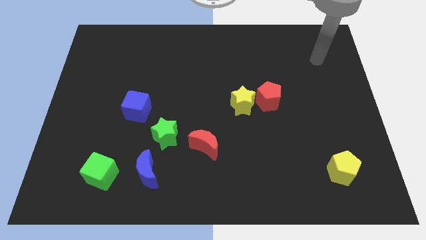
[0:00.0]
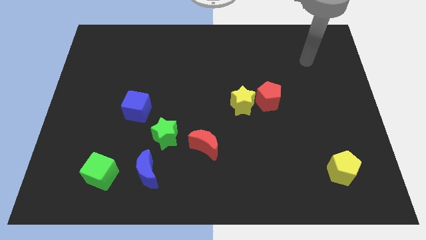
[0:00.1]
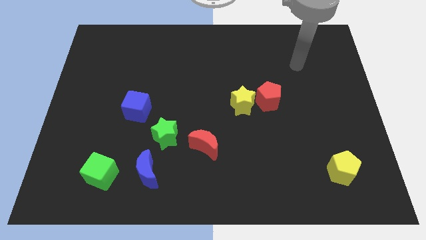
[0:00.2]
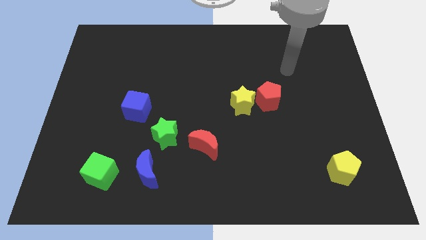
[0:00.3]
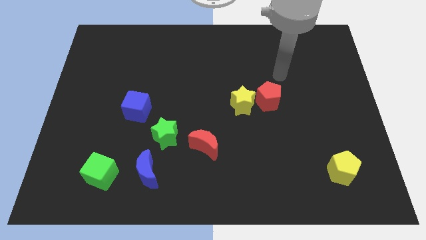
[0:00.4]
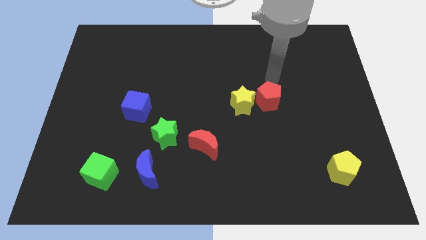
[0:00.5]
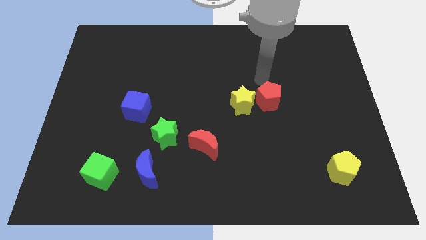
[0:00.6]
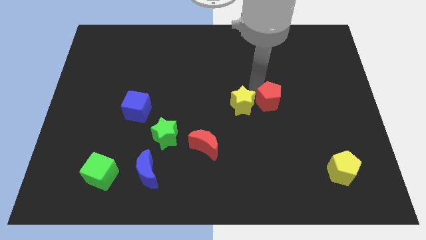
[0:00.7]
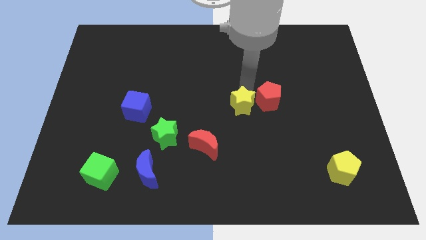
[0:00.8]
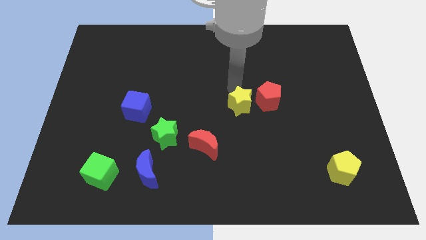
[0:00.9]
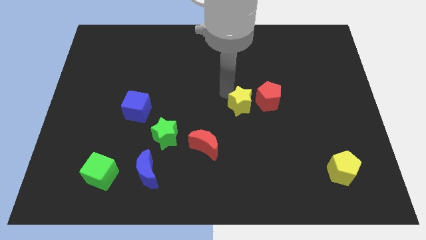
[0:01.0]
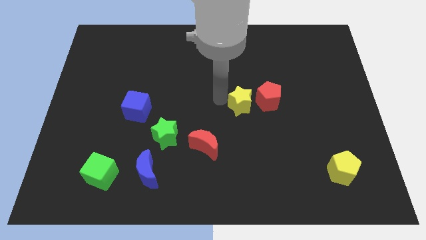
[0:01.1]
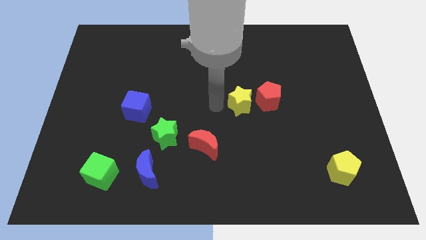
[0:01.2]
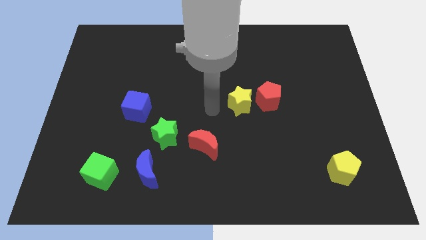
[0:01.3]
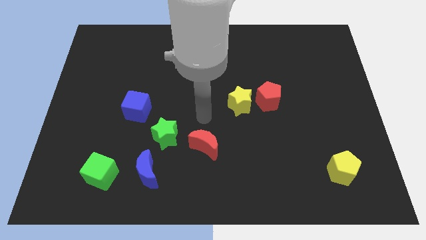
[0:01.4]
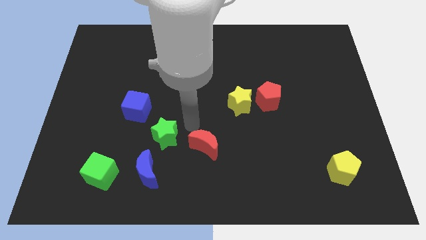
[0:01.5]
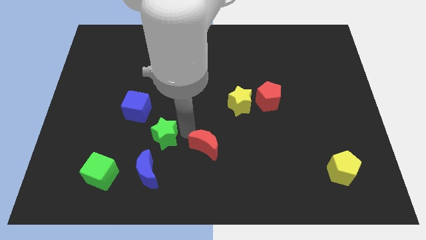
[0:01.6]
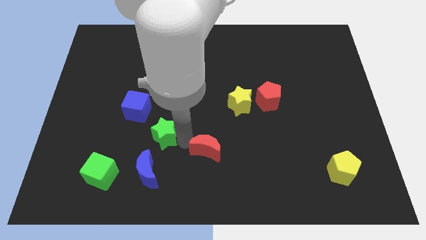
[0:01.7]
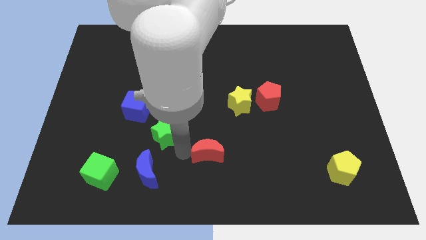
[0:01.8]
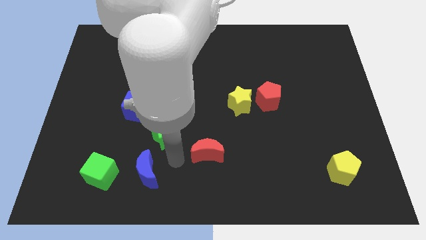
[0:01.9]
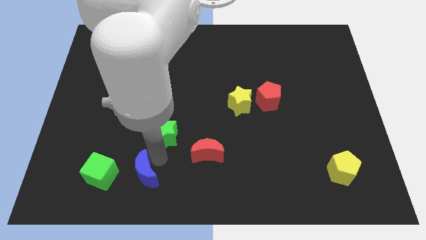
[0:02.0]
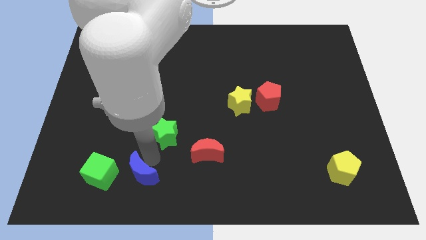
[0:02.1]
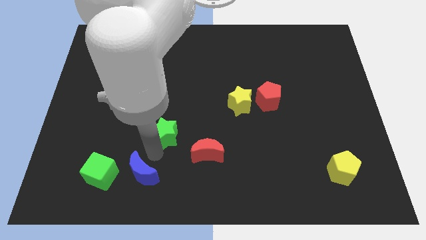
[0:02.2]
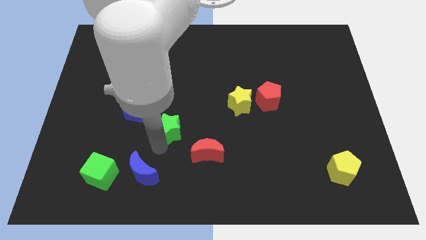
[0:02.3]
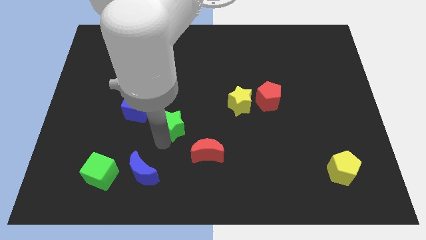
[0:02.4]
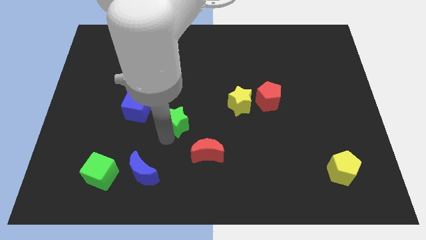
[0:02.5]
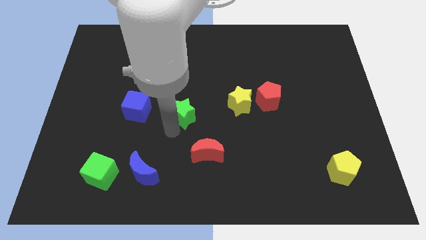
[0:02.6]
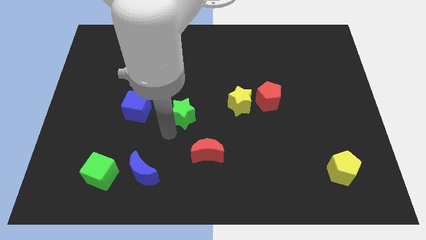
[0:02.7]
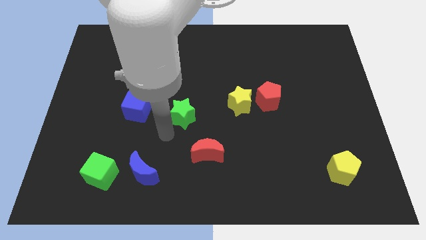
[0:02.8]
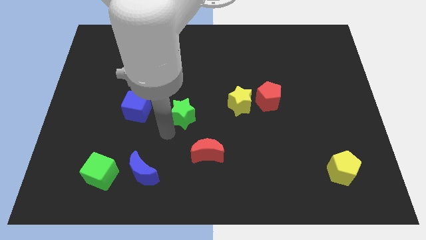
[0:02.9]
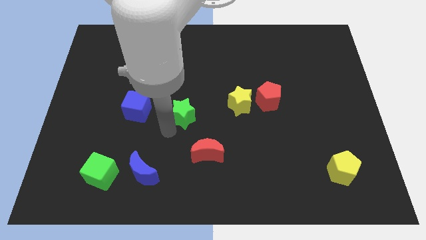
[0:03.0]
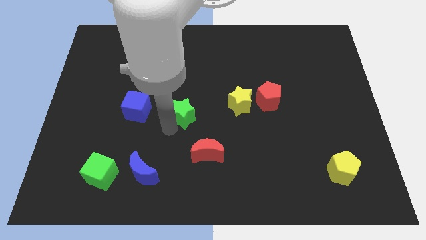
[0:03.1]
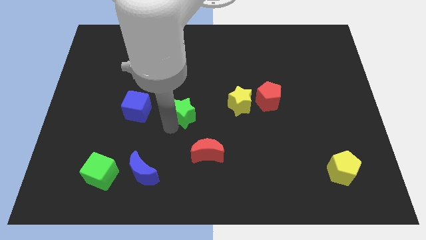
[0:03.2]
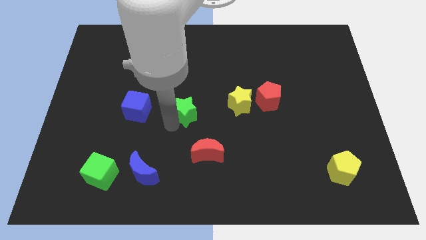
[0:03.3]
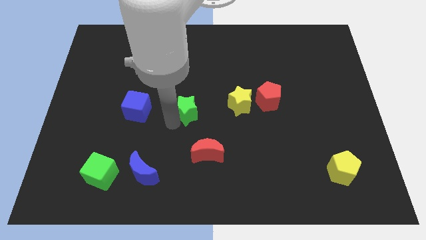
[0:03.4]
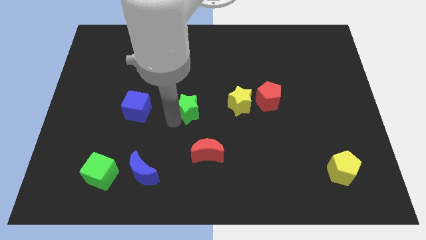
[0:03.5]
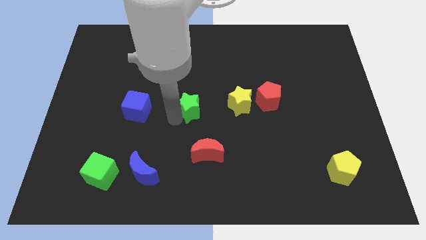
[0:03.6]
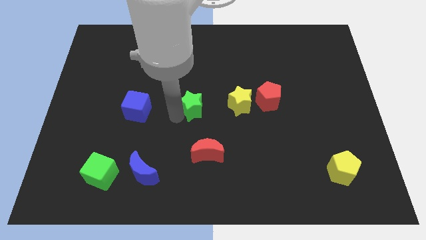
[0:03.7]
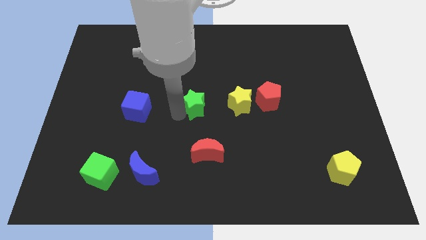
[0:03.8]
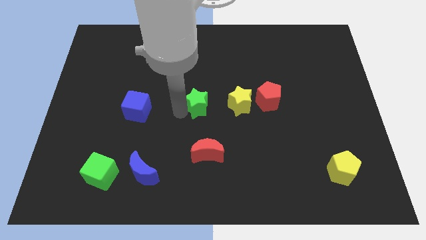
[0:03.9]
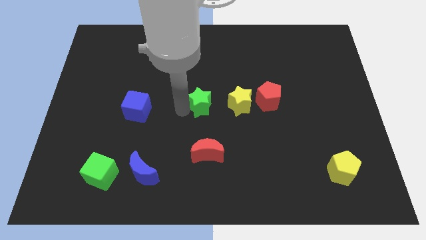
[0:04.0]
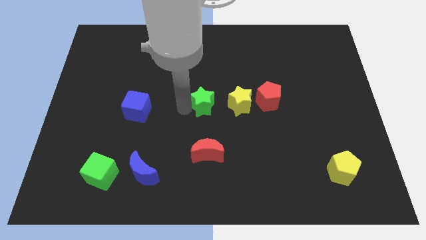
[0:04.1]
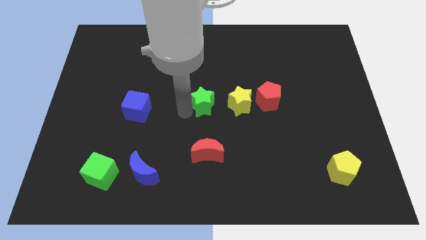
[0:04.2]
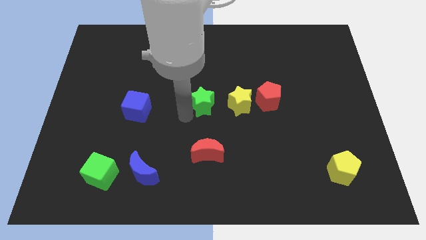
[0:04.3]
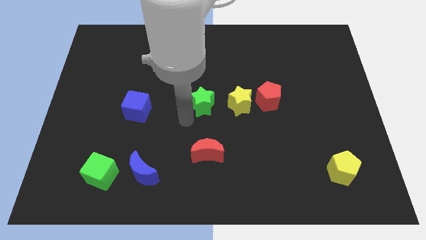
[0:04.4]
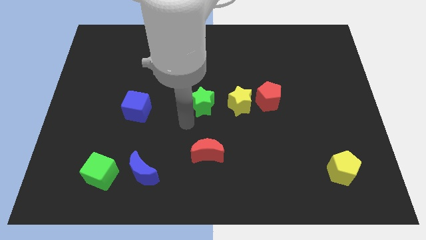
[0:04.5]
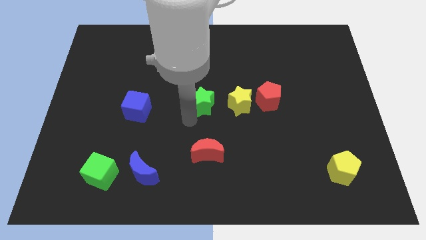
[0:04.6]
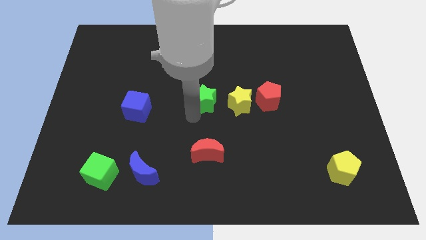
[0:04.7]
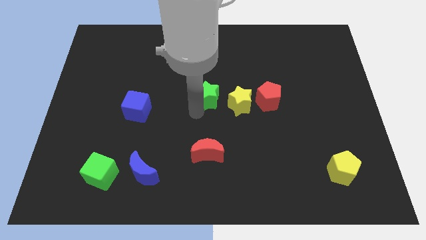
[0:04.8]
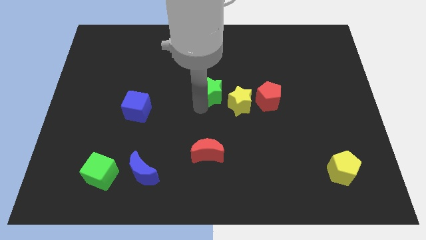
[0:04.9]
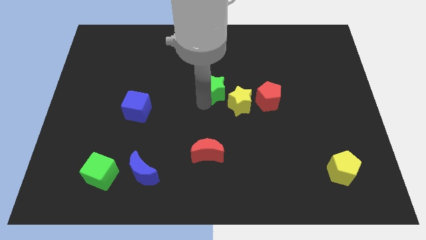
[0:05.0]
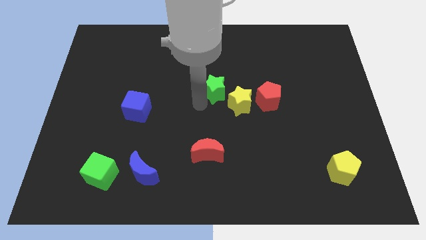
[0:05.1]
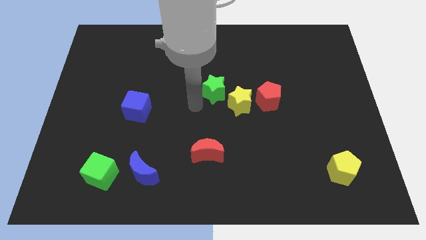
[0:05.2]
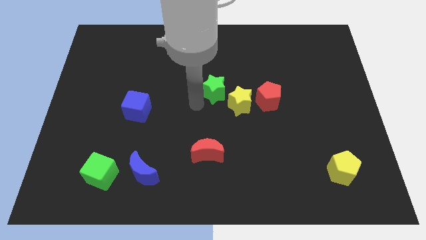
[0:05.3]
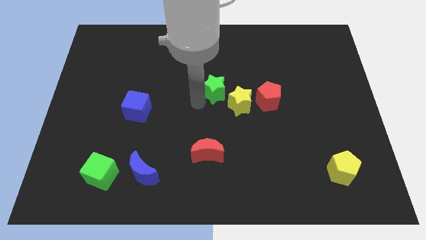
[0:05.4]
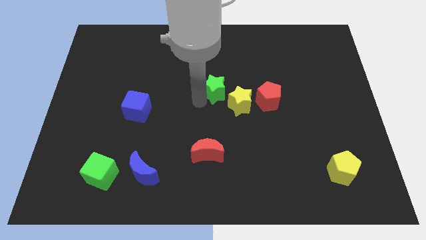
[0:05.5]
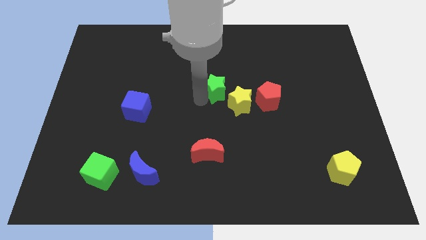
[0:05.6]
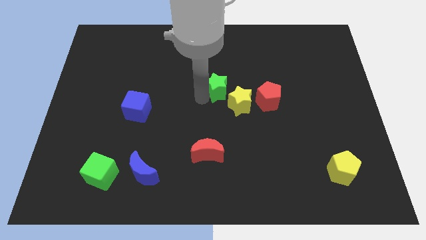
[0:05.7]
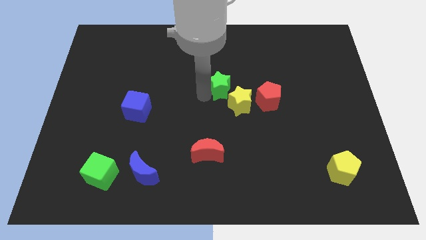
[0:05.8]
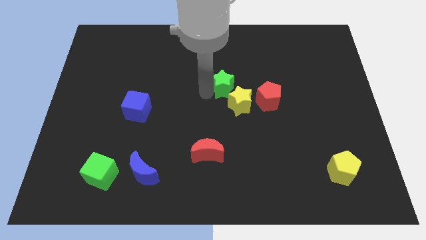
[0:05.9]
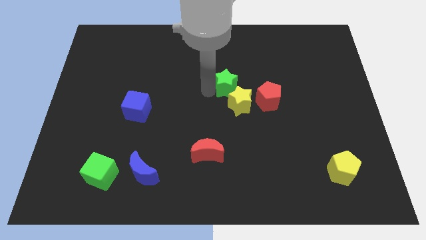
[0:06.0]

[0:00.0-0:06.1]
move the green star up and right diagonally

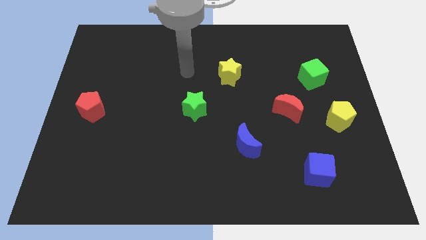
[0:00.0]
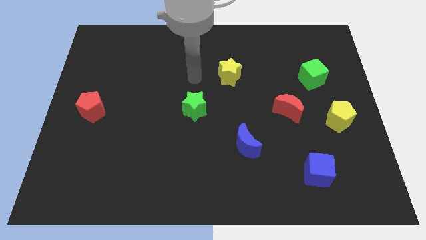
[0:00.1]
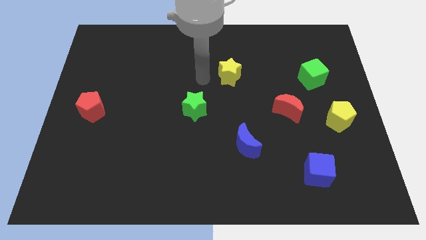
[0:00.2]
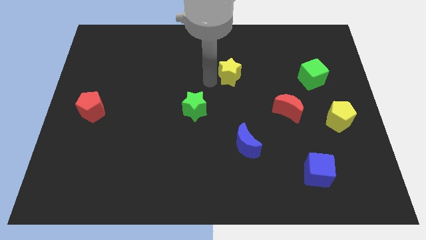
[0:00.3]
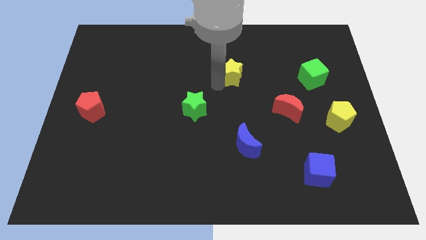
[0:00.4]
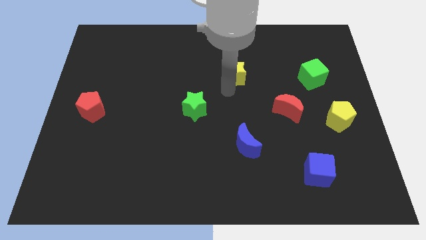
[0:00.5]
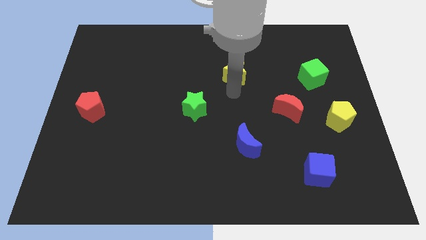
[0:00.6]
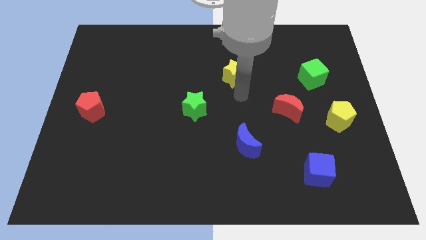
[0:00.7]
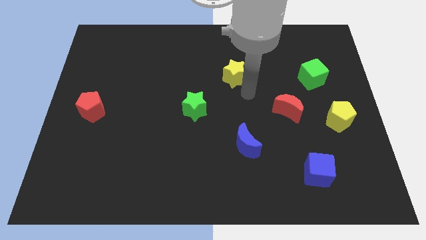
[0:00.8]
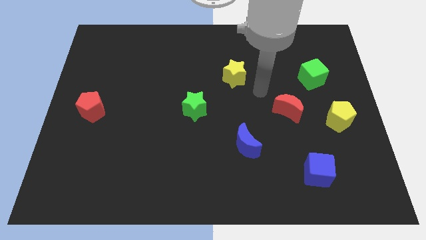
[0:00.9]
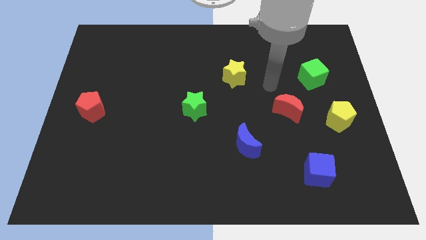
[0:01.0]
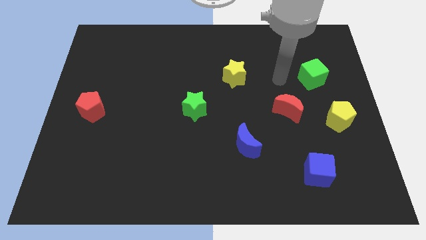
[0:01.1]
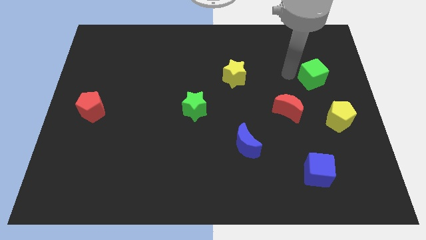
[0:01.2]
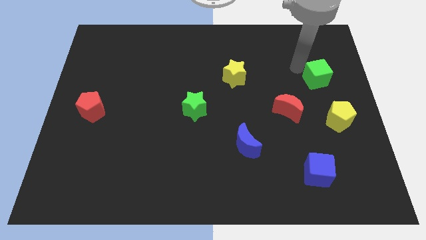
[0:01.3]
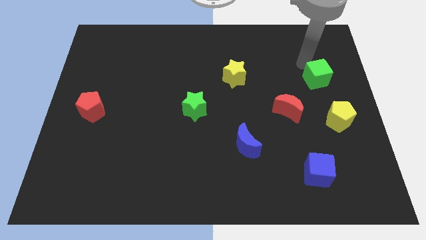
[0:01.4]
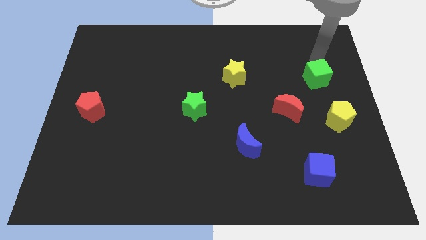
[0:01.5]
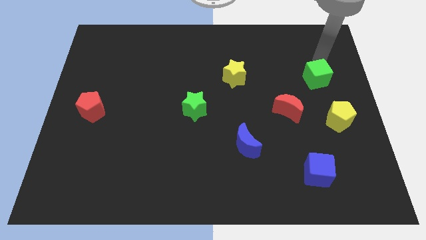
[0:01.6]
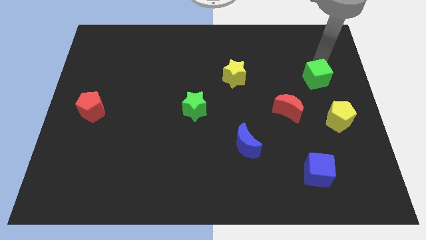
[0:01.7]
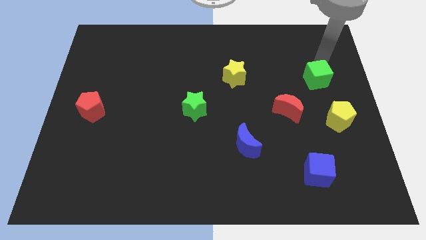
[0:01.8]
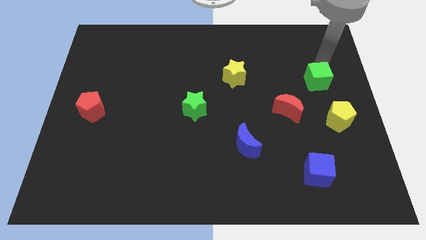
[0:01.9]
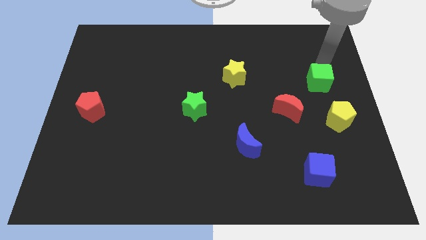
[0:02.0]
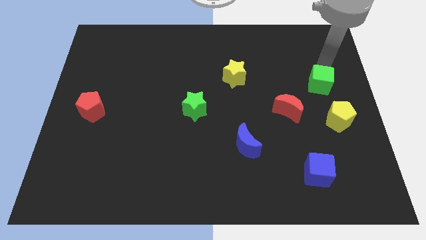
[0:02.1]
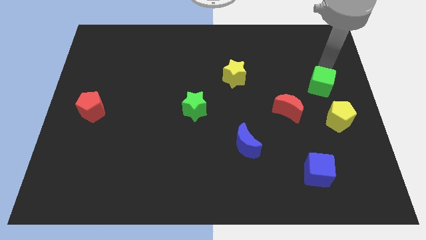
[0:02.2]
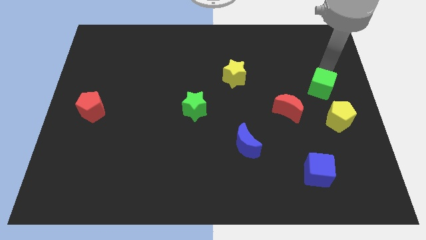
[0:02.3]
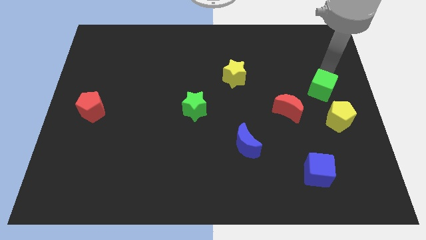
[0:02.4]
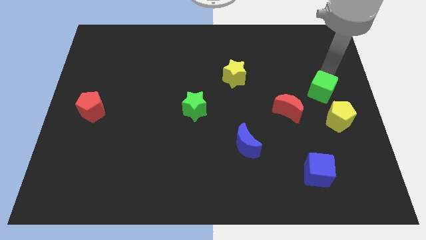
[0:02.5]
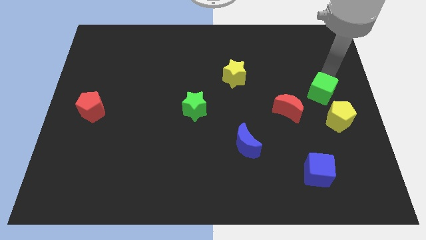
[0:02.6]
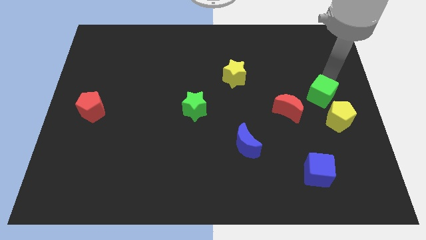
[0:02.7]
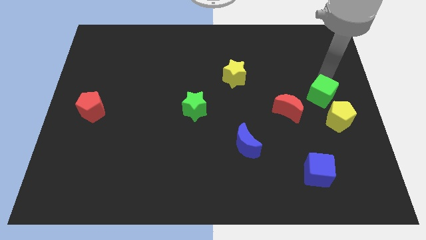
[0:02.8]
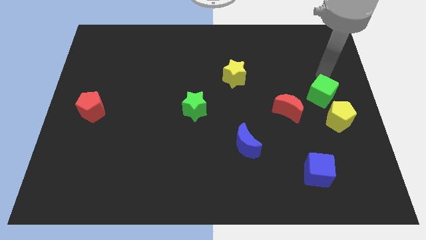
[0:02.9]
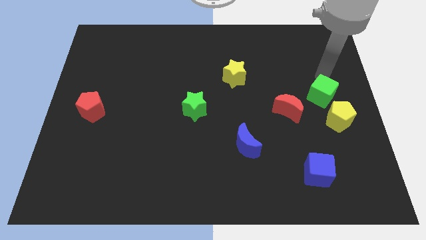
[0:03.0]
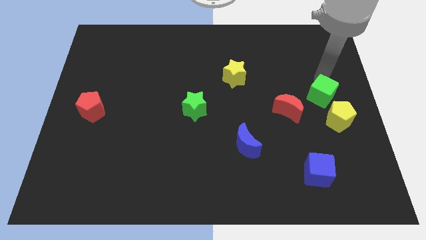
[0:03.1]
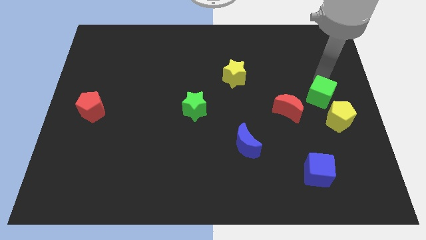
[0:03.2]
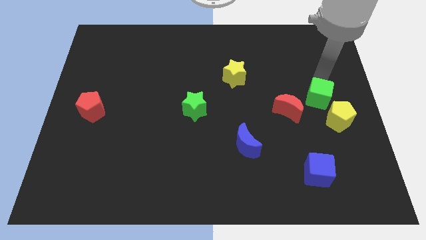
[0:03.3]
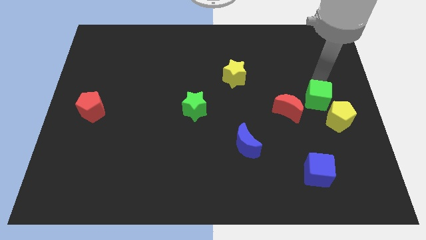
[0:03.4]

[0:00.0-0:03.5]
slide the green cube downwards somewhat
